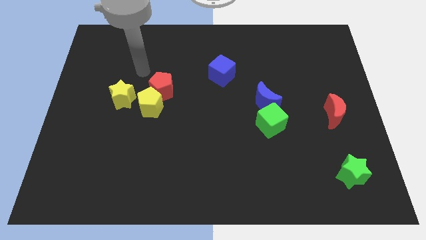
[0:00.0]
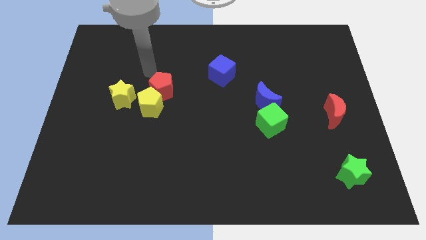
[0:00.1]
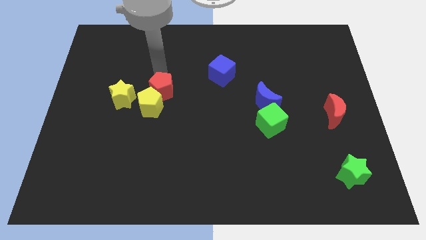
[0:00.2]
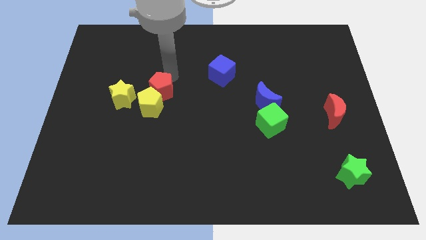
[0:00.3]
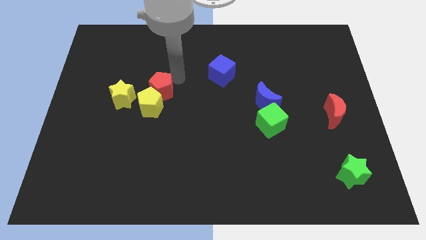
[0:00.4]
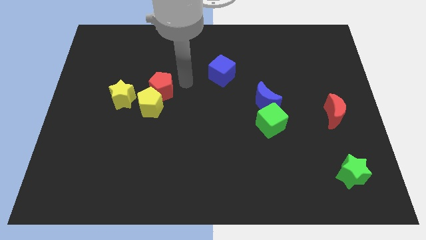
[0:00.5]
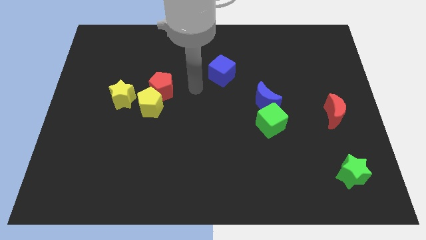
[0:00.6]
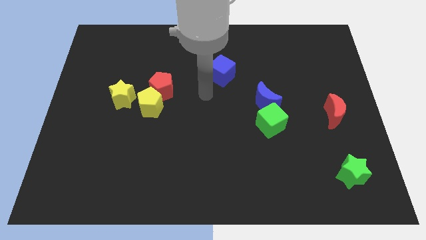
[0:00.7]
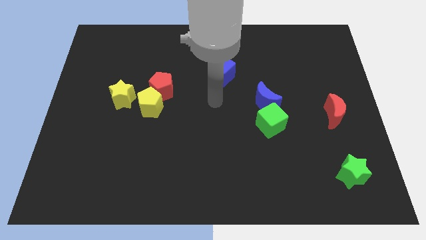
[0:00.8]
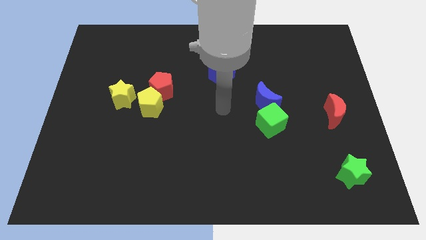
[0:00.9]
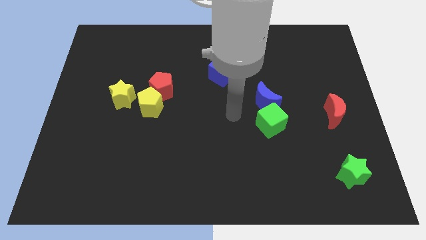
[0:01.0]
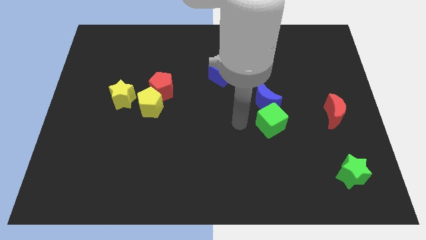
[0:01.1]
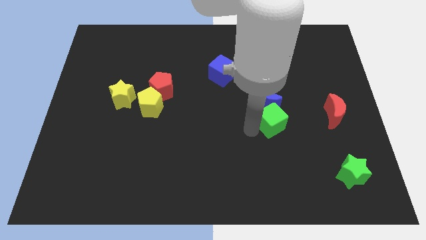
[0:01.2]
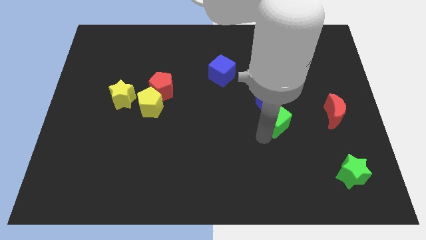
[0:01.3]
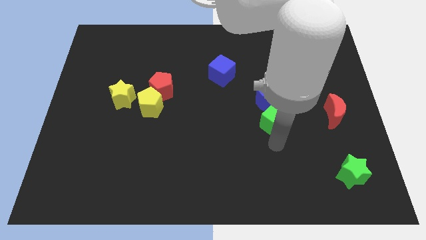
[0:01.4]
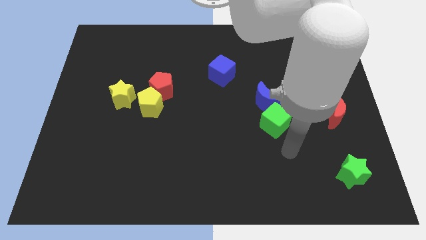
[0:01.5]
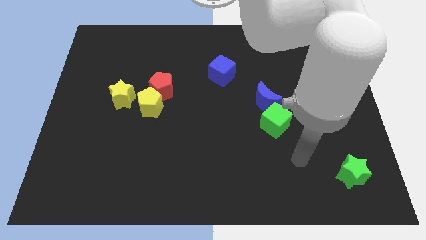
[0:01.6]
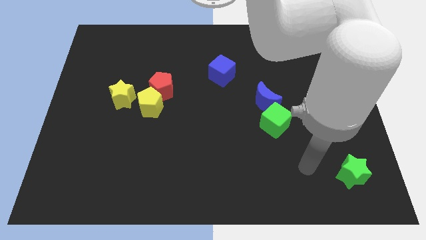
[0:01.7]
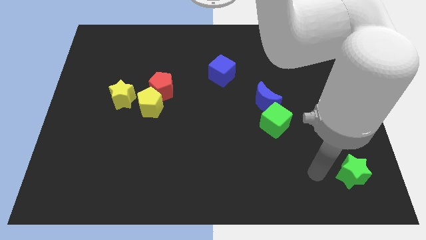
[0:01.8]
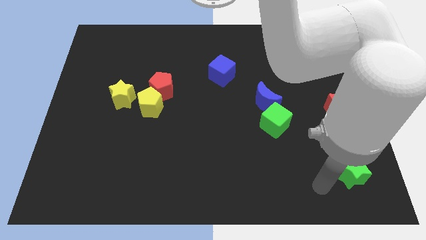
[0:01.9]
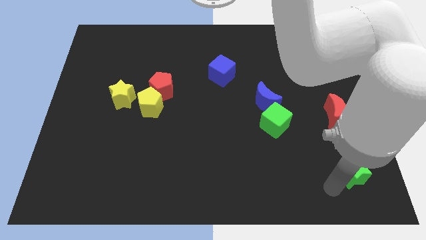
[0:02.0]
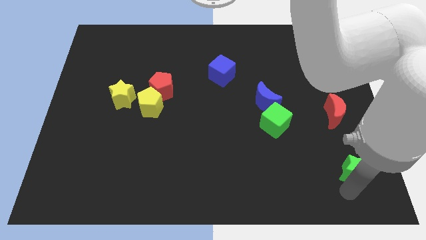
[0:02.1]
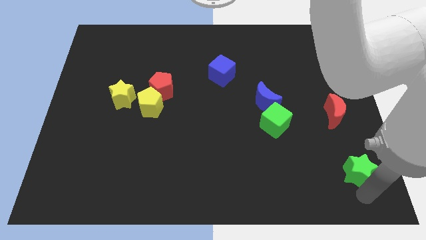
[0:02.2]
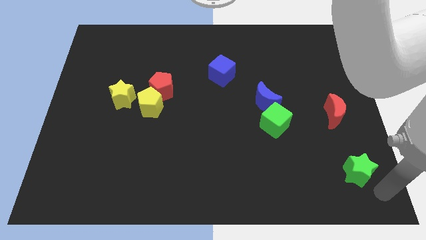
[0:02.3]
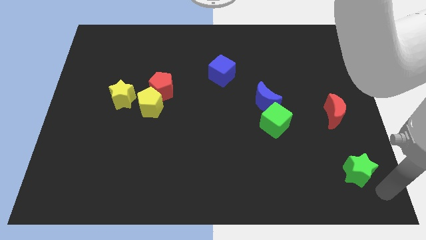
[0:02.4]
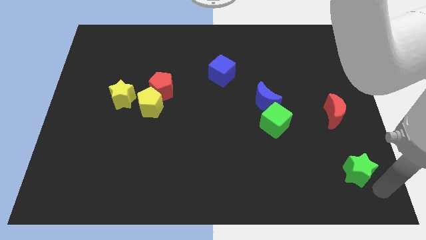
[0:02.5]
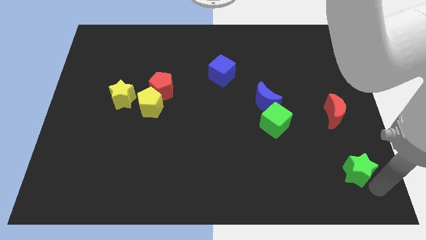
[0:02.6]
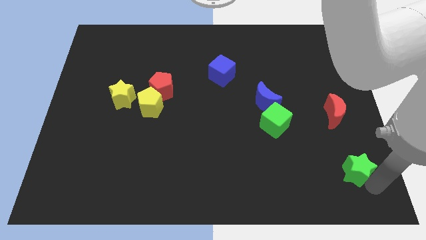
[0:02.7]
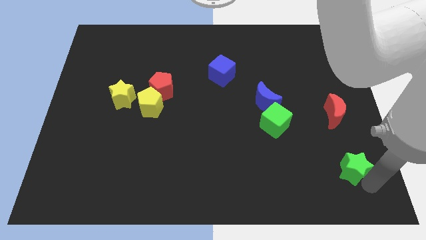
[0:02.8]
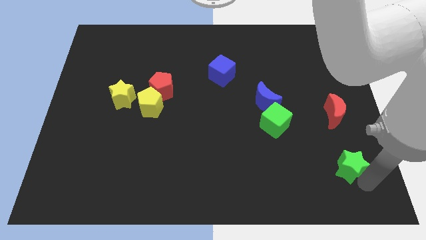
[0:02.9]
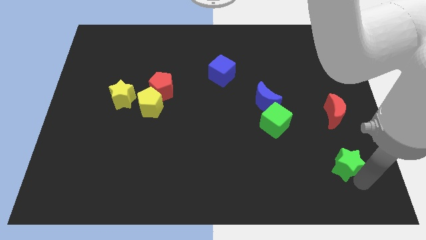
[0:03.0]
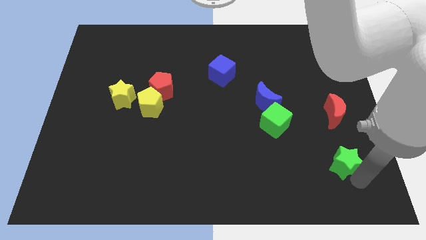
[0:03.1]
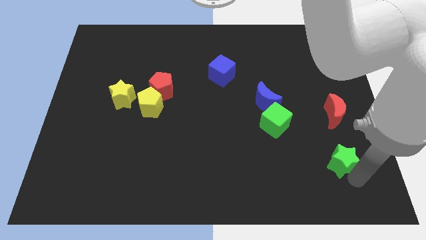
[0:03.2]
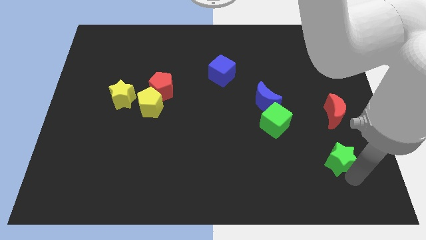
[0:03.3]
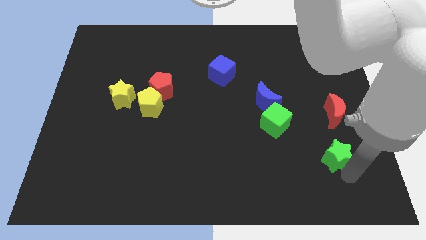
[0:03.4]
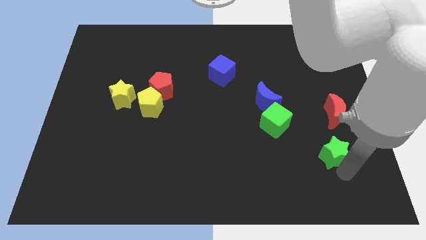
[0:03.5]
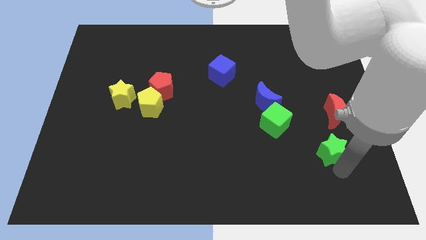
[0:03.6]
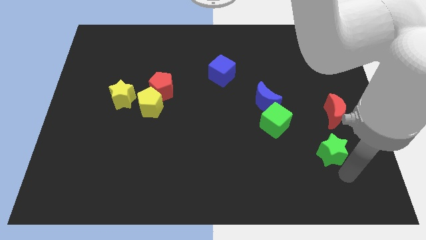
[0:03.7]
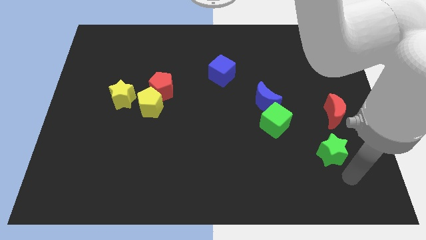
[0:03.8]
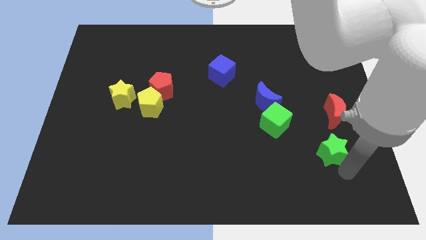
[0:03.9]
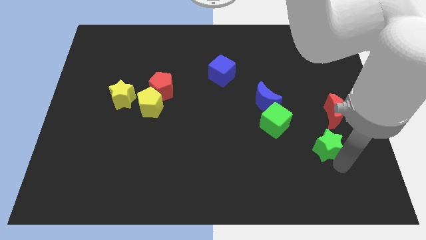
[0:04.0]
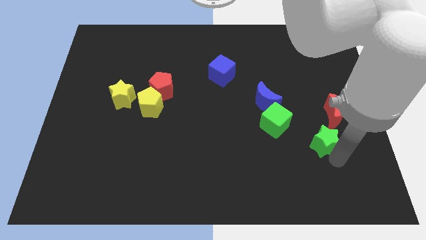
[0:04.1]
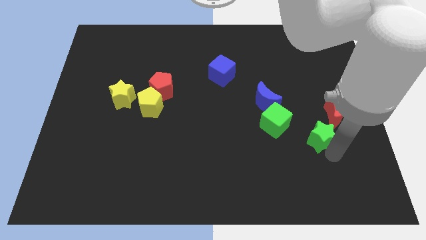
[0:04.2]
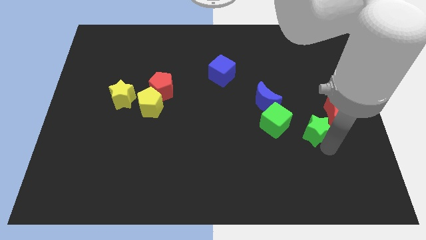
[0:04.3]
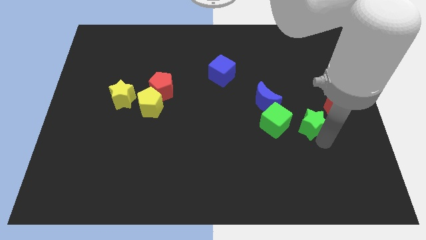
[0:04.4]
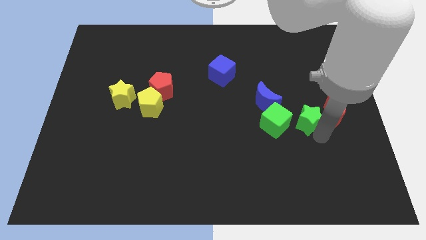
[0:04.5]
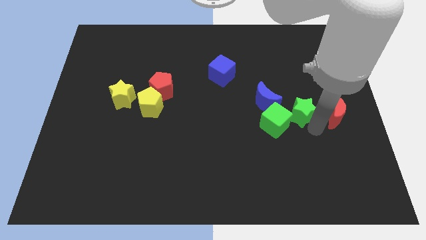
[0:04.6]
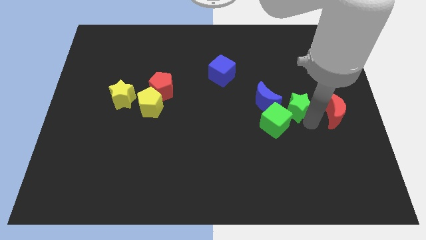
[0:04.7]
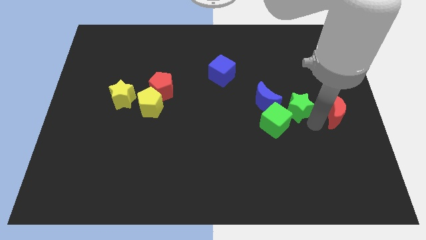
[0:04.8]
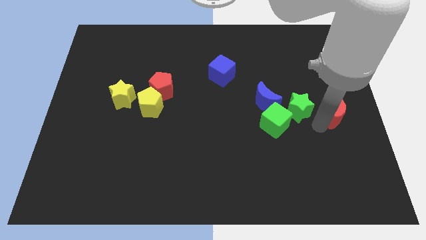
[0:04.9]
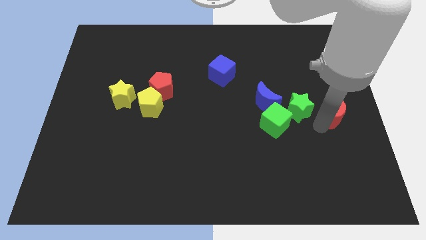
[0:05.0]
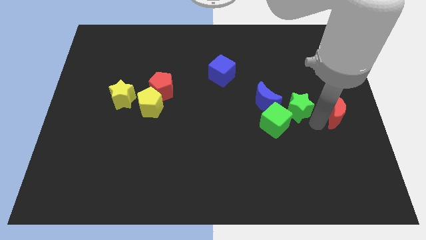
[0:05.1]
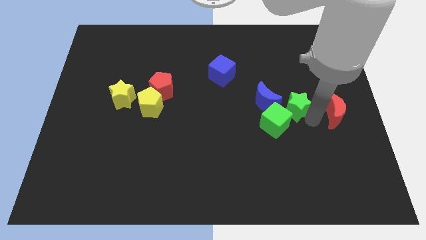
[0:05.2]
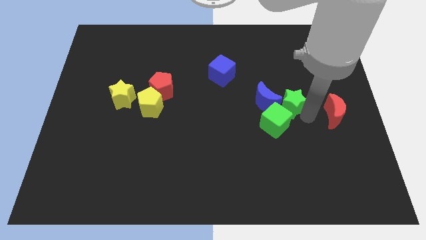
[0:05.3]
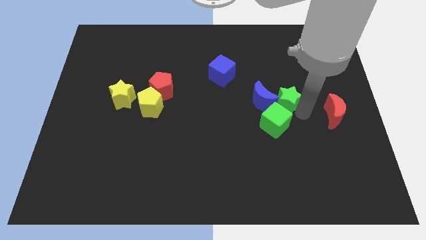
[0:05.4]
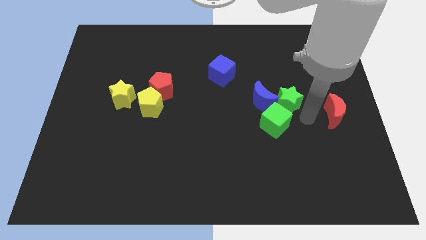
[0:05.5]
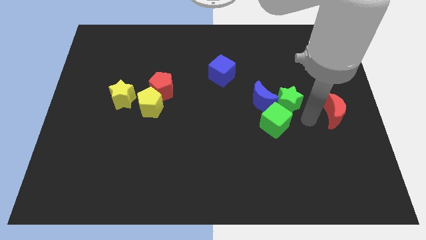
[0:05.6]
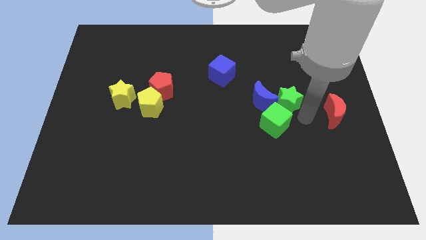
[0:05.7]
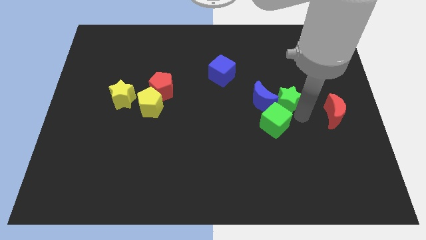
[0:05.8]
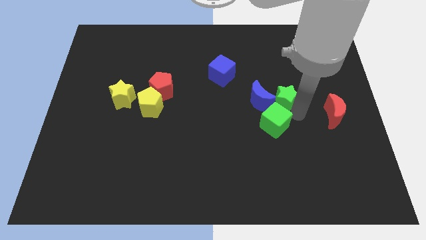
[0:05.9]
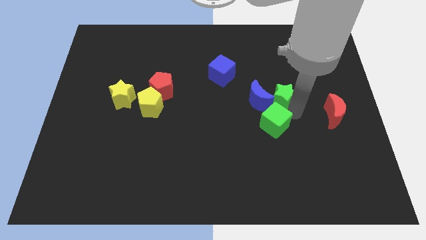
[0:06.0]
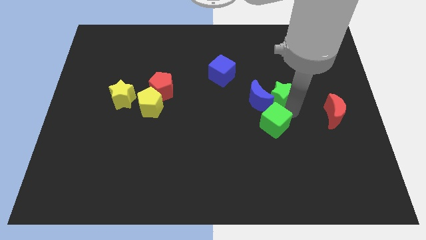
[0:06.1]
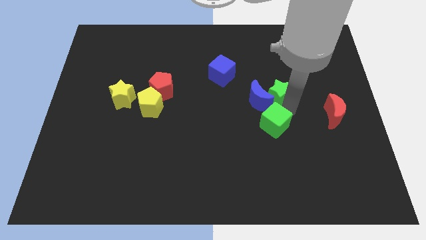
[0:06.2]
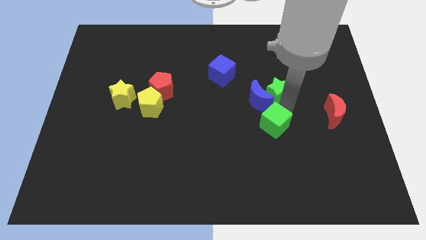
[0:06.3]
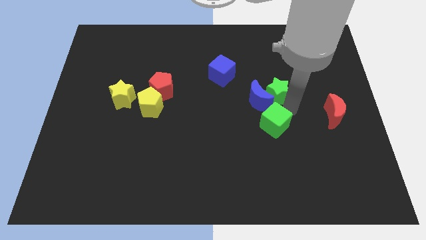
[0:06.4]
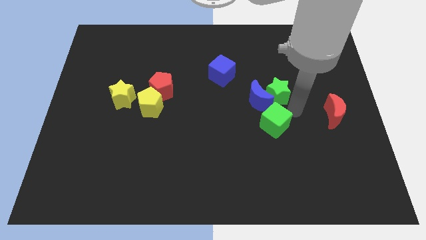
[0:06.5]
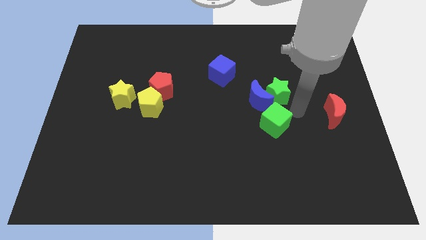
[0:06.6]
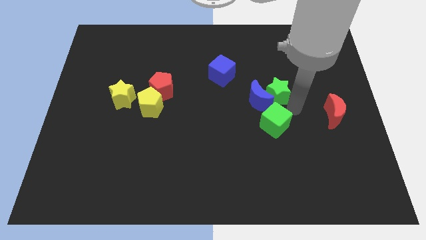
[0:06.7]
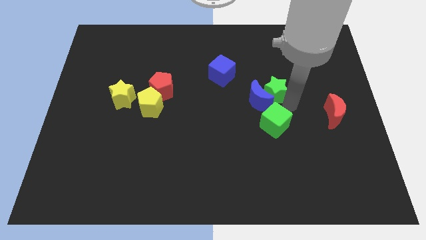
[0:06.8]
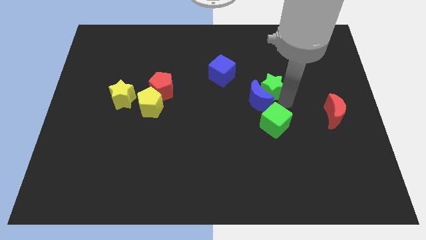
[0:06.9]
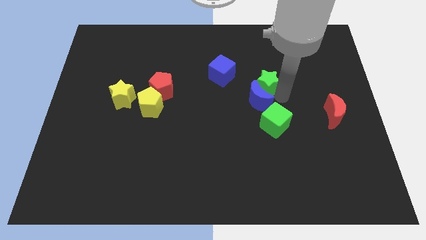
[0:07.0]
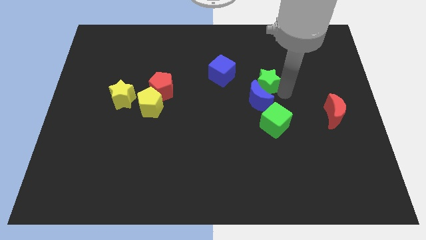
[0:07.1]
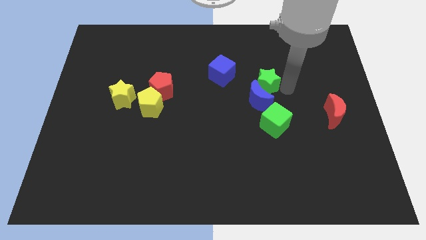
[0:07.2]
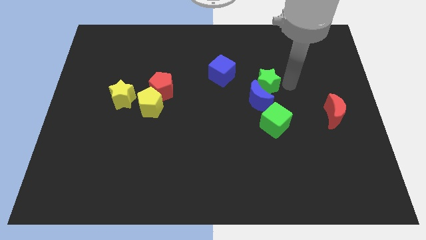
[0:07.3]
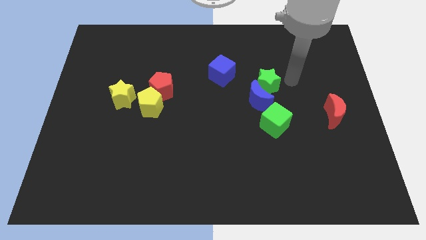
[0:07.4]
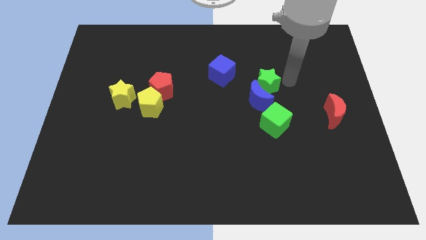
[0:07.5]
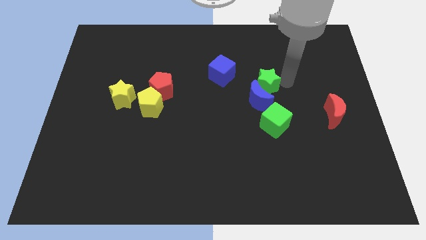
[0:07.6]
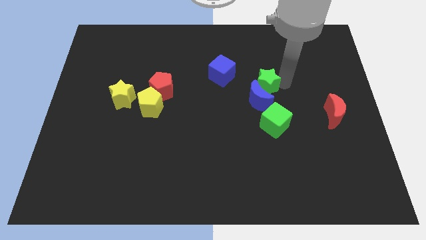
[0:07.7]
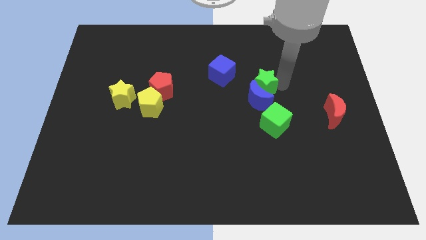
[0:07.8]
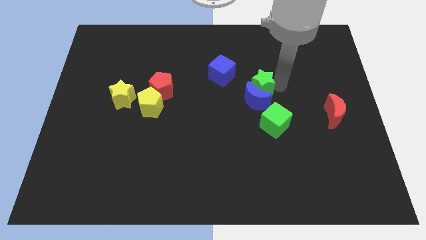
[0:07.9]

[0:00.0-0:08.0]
put the green star to the bottom right of the blue cube
